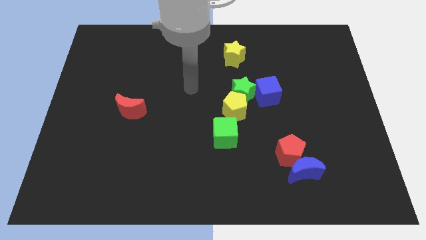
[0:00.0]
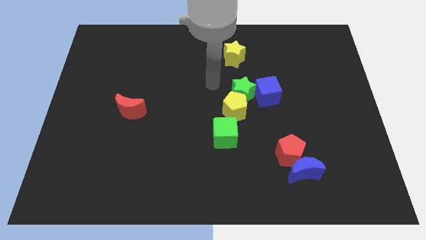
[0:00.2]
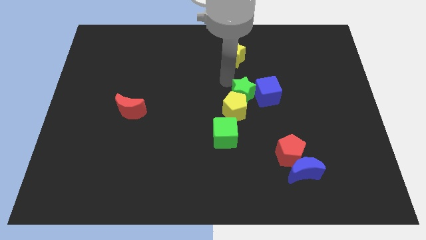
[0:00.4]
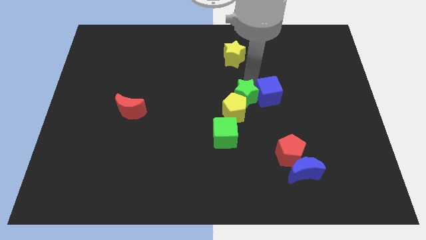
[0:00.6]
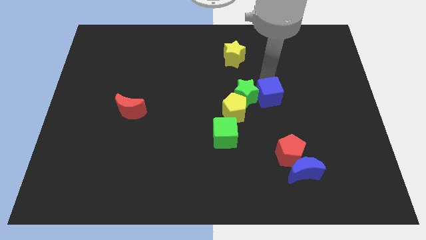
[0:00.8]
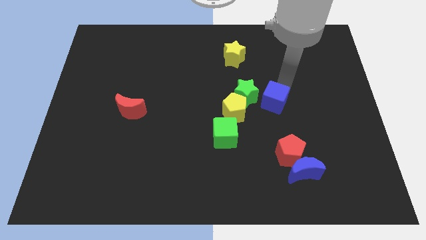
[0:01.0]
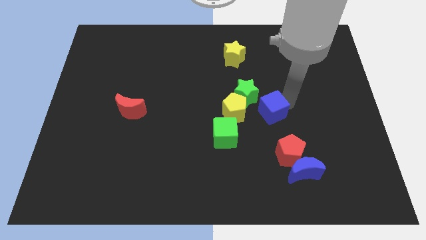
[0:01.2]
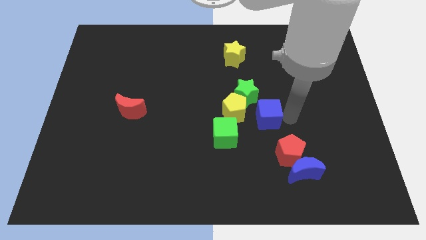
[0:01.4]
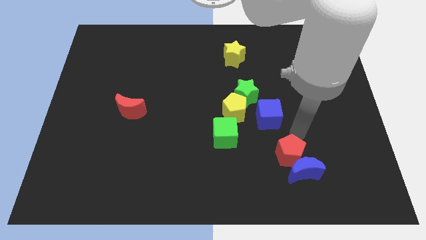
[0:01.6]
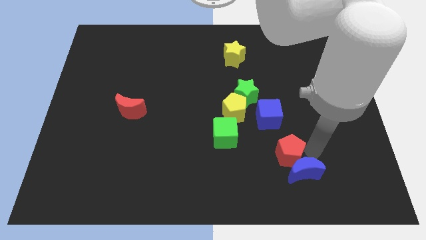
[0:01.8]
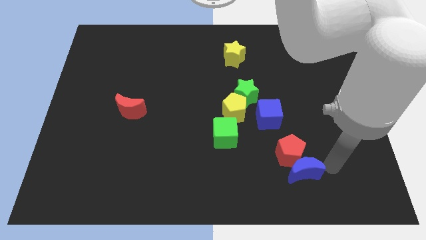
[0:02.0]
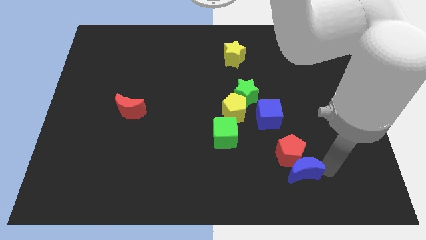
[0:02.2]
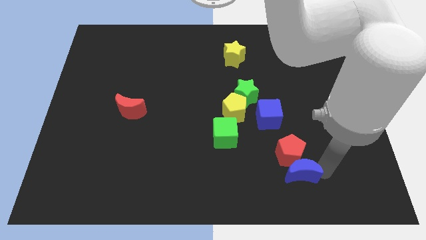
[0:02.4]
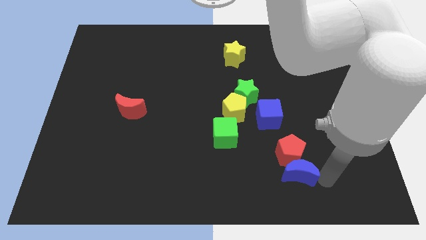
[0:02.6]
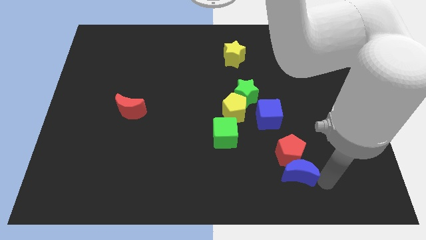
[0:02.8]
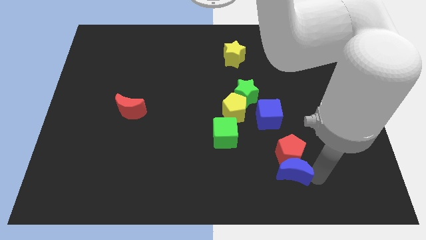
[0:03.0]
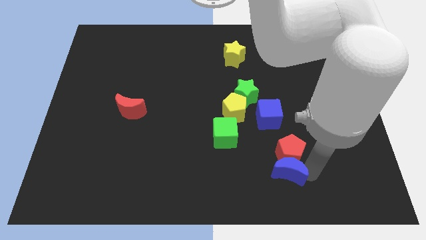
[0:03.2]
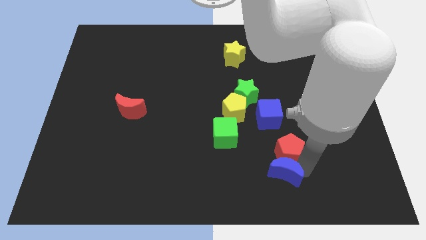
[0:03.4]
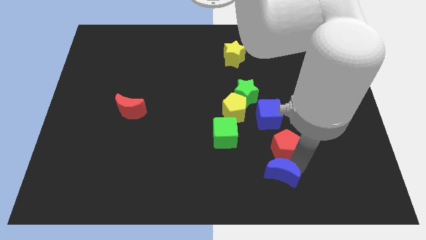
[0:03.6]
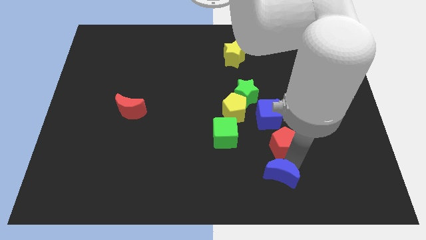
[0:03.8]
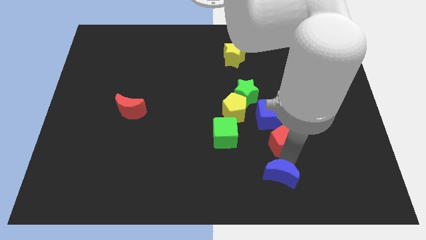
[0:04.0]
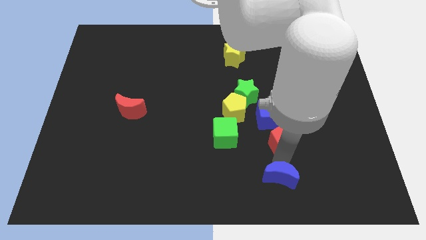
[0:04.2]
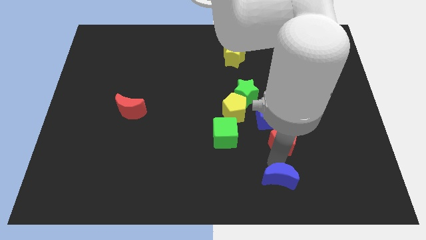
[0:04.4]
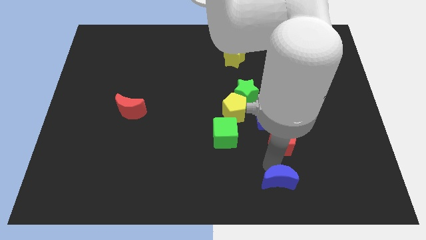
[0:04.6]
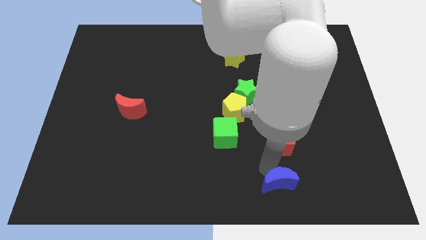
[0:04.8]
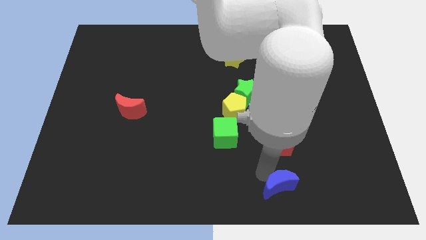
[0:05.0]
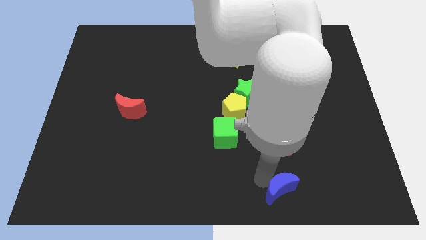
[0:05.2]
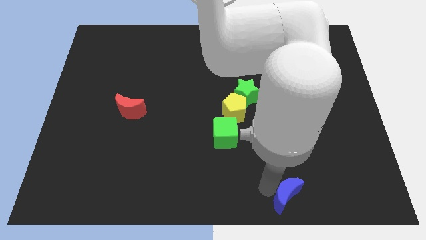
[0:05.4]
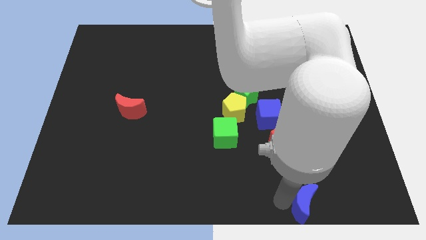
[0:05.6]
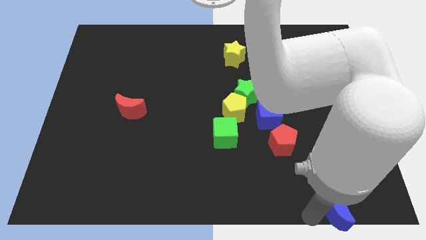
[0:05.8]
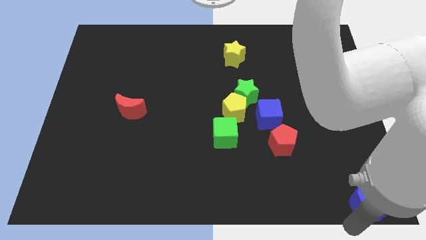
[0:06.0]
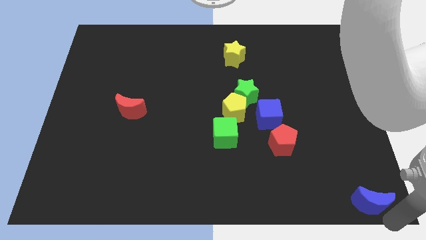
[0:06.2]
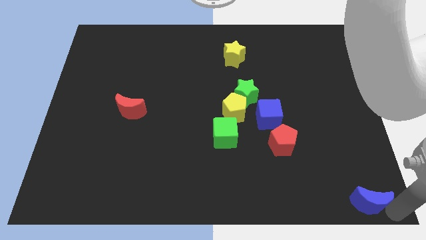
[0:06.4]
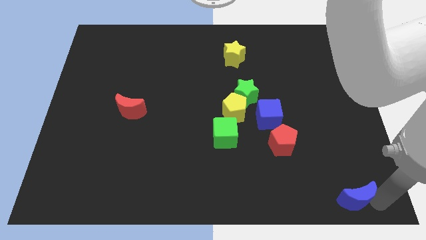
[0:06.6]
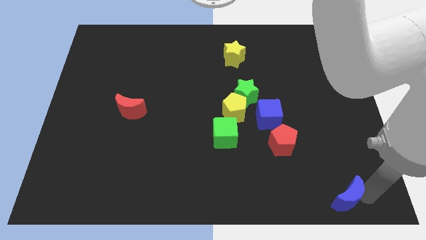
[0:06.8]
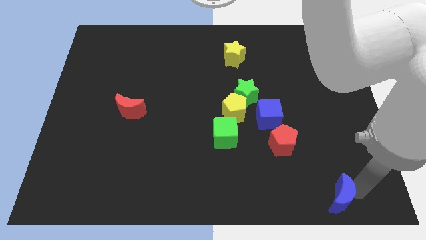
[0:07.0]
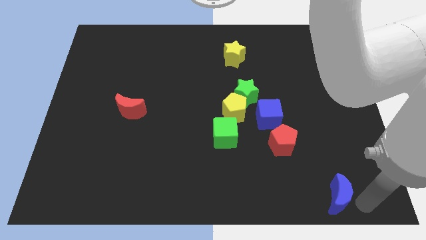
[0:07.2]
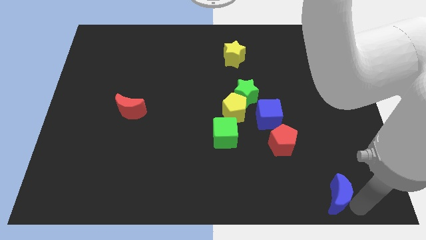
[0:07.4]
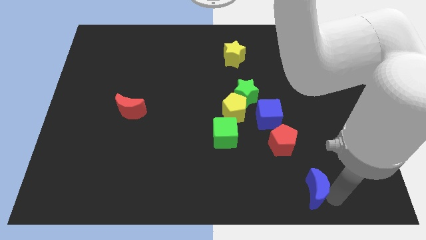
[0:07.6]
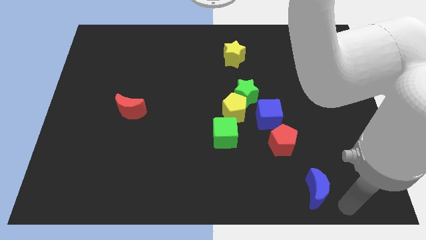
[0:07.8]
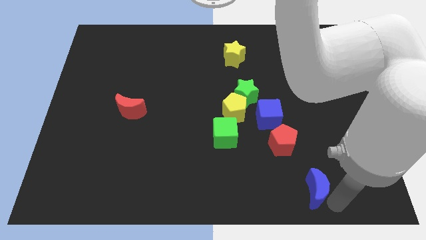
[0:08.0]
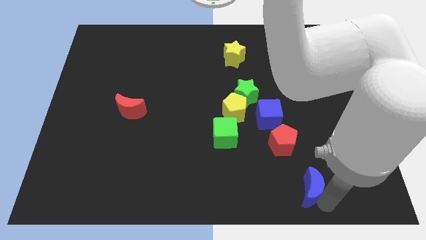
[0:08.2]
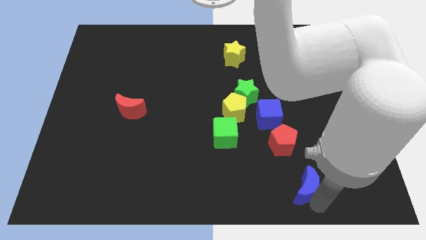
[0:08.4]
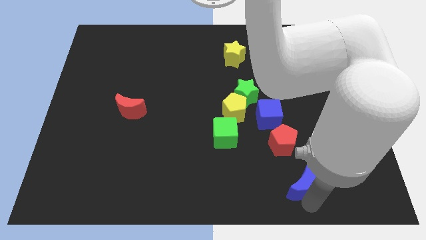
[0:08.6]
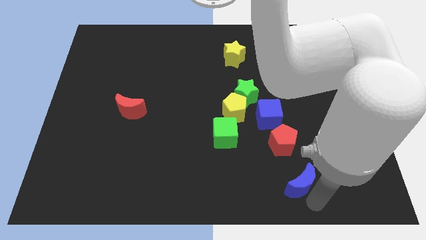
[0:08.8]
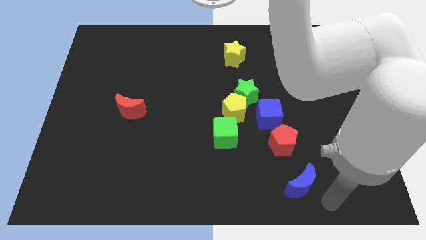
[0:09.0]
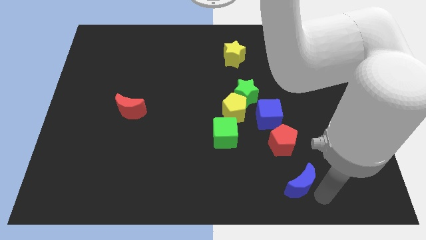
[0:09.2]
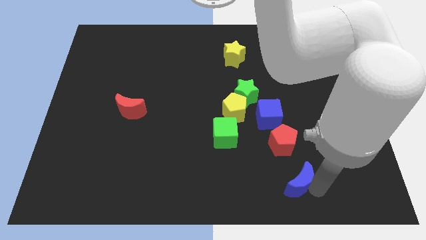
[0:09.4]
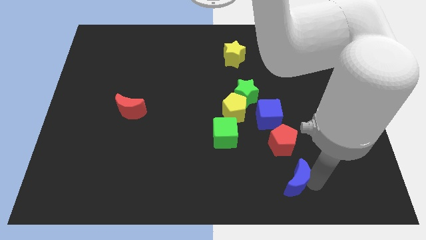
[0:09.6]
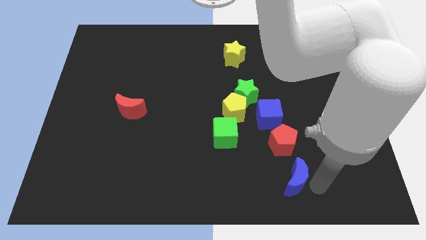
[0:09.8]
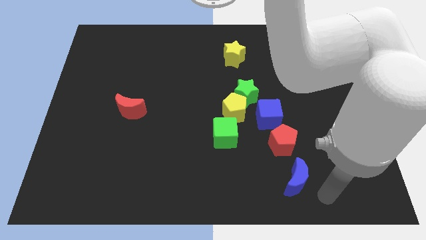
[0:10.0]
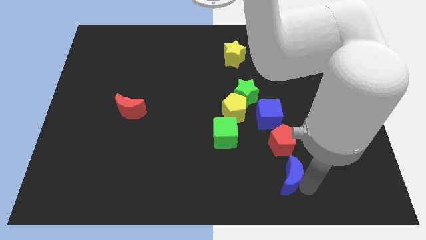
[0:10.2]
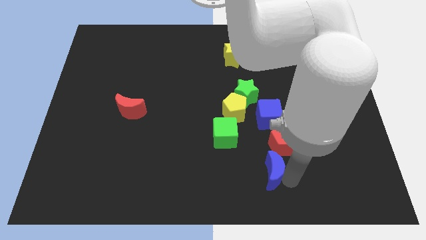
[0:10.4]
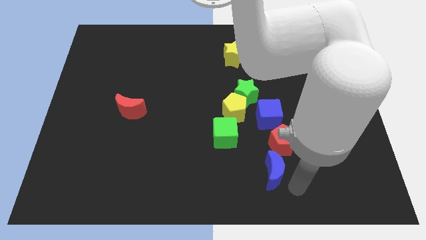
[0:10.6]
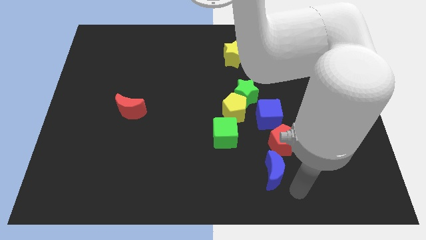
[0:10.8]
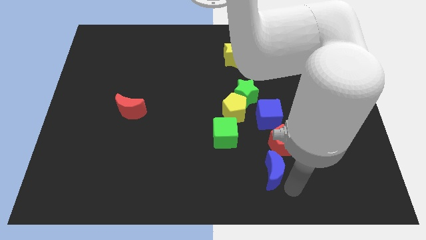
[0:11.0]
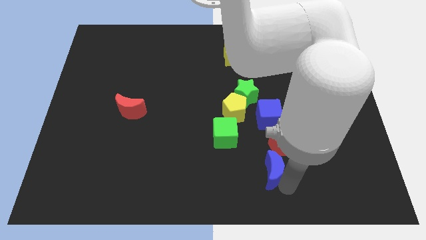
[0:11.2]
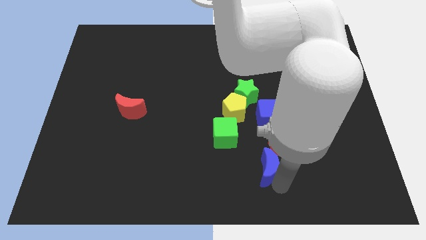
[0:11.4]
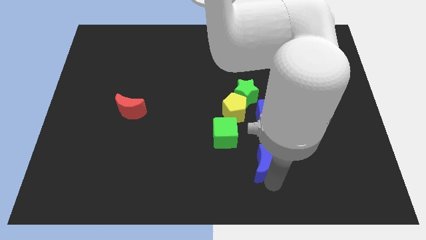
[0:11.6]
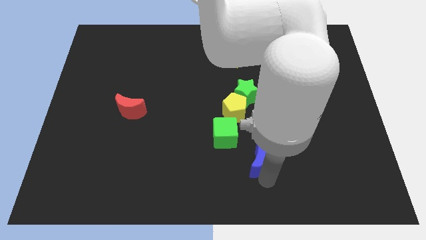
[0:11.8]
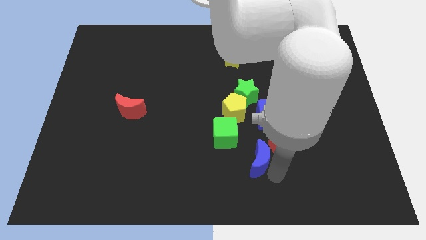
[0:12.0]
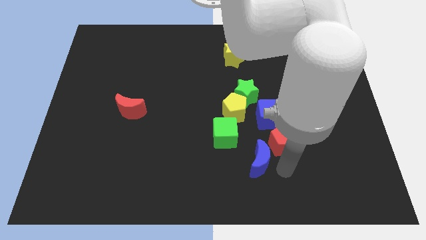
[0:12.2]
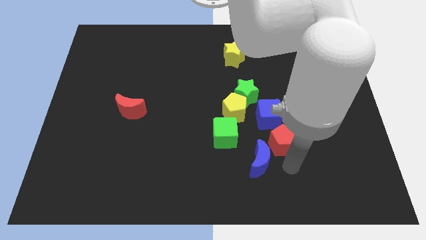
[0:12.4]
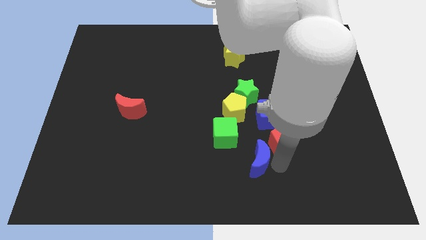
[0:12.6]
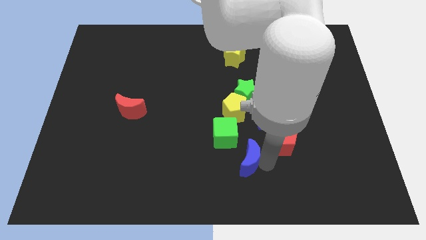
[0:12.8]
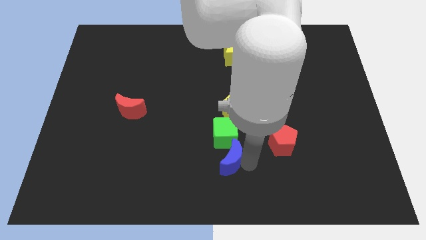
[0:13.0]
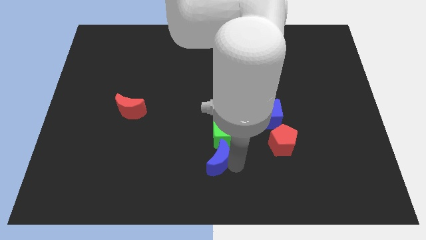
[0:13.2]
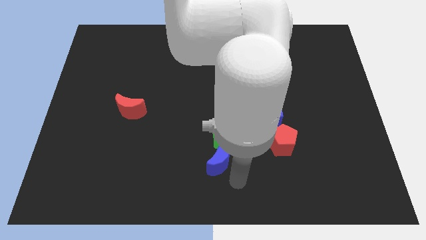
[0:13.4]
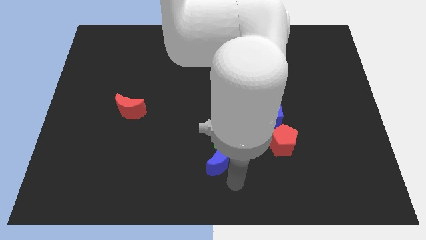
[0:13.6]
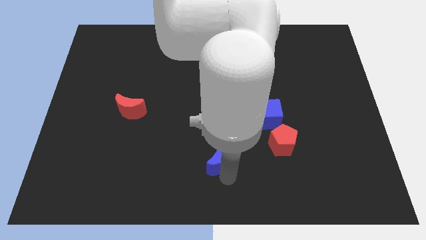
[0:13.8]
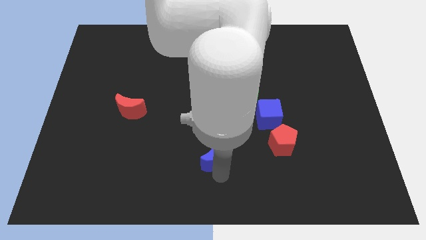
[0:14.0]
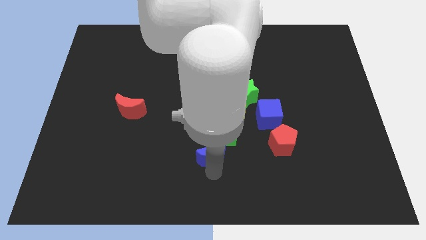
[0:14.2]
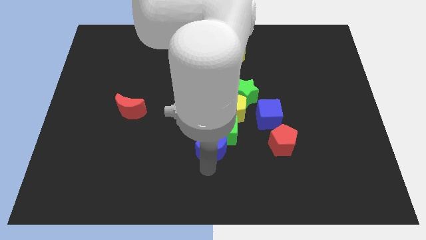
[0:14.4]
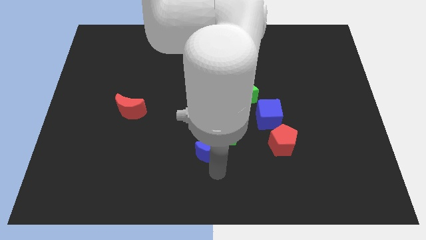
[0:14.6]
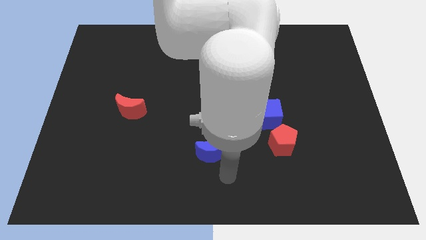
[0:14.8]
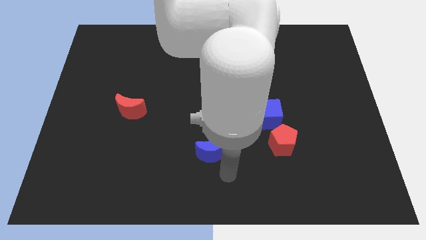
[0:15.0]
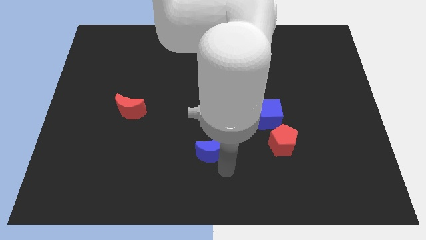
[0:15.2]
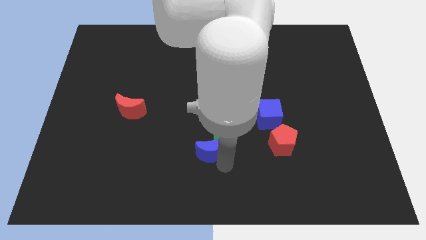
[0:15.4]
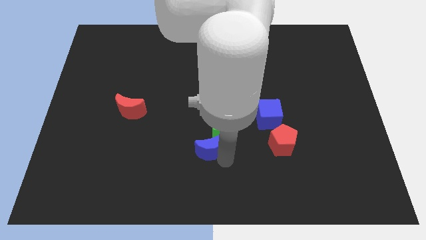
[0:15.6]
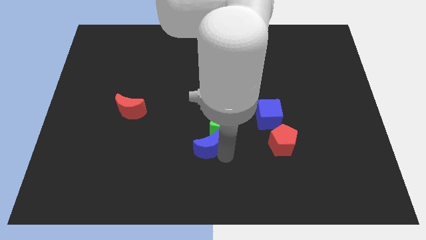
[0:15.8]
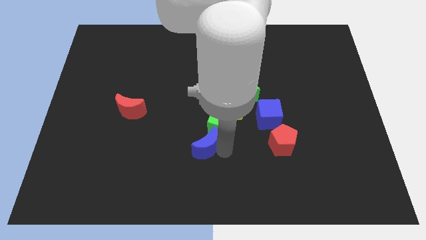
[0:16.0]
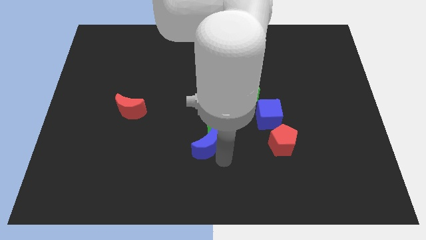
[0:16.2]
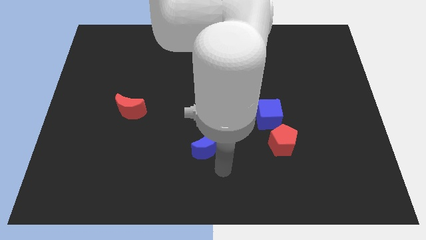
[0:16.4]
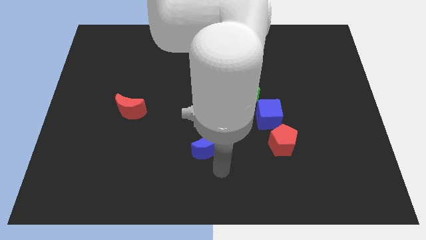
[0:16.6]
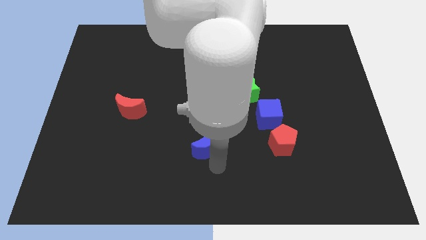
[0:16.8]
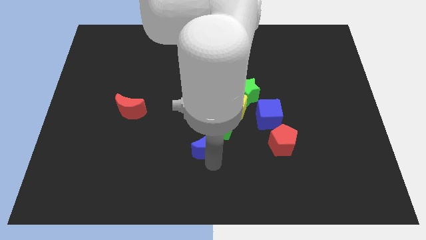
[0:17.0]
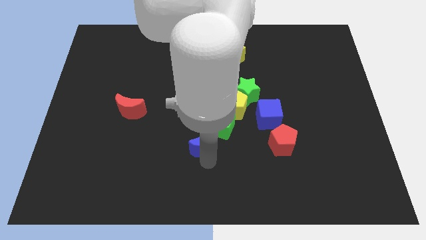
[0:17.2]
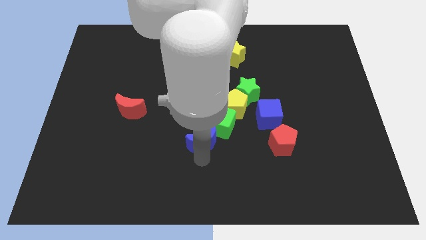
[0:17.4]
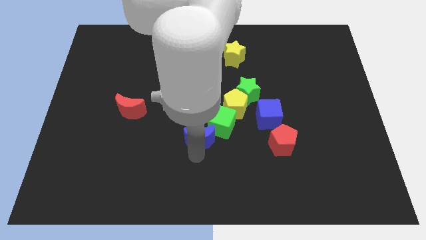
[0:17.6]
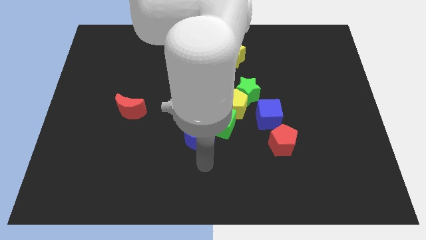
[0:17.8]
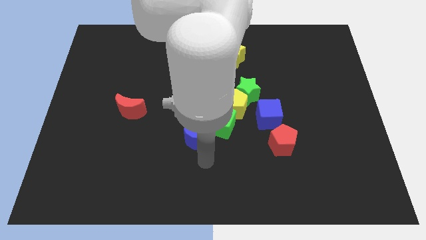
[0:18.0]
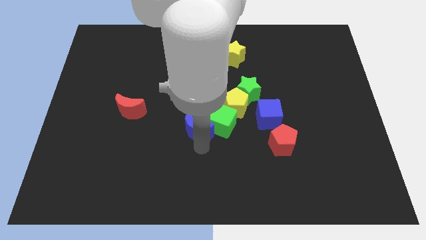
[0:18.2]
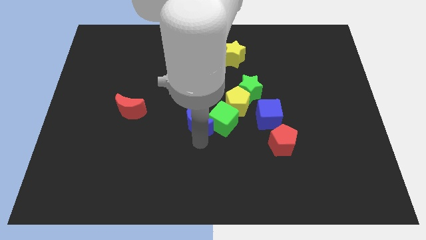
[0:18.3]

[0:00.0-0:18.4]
push the blue moon upwards and then to the left
